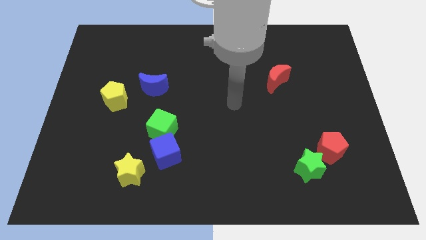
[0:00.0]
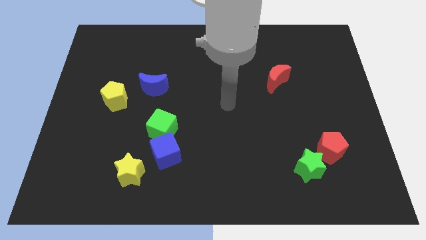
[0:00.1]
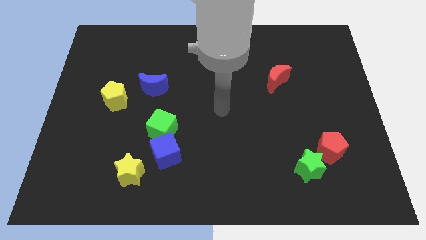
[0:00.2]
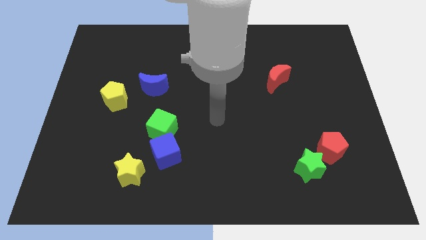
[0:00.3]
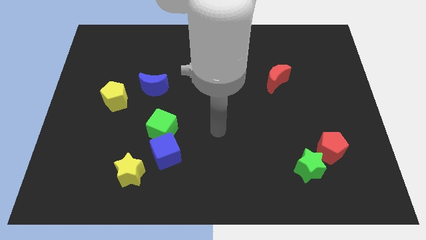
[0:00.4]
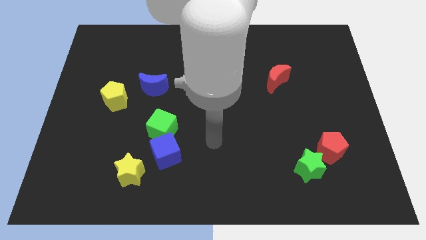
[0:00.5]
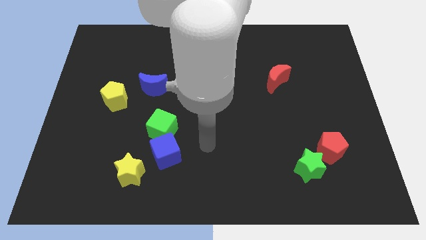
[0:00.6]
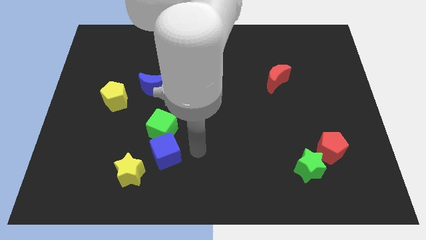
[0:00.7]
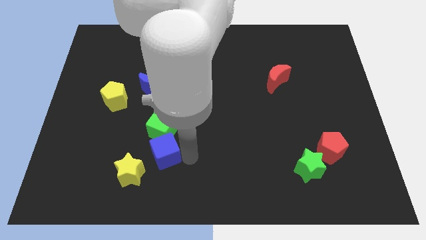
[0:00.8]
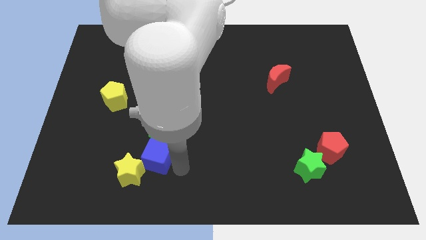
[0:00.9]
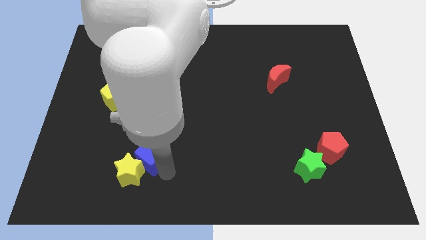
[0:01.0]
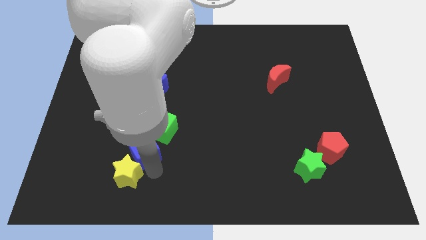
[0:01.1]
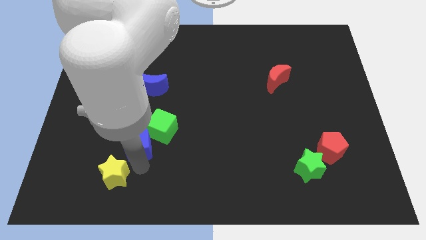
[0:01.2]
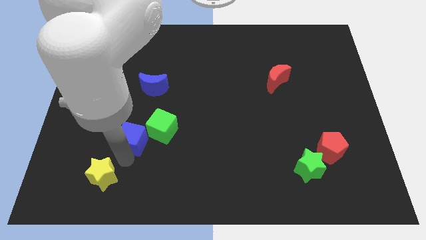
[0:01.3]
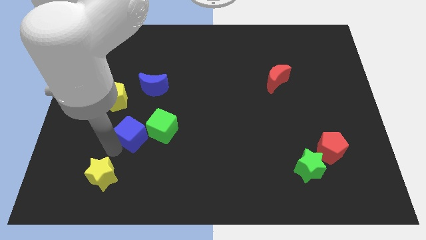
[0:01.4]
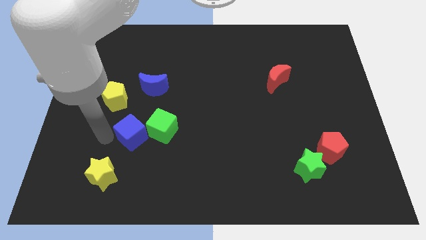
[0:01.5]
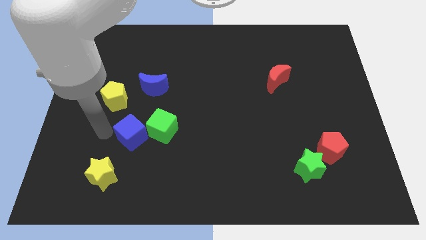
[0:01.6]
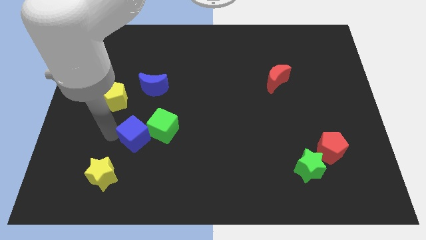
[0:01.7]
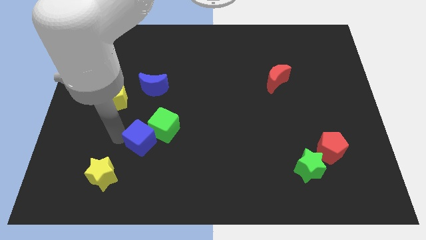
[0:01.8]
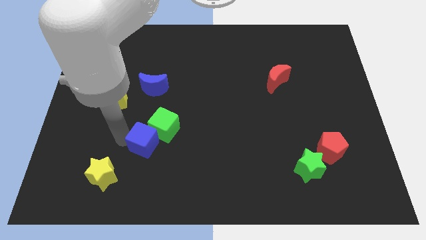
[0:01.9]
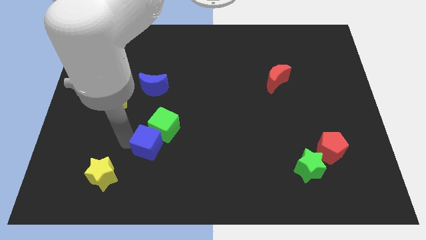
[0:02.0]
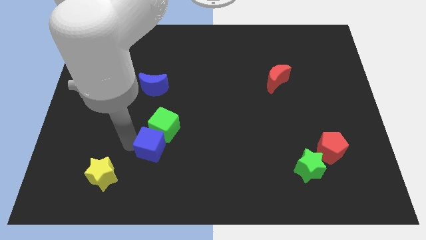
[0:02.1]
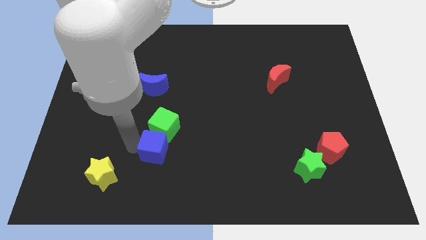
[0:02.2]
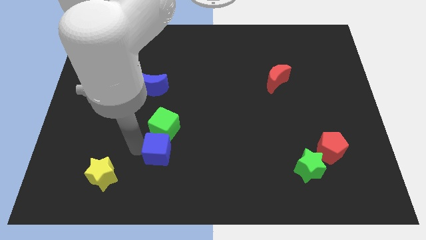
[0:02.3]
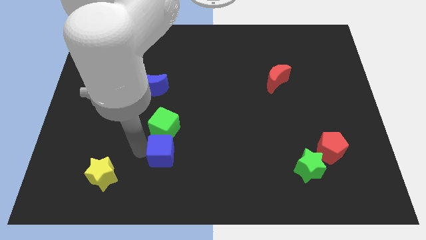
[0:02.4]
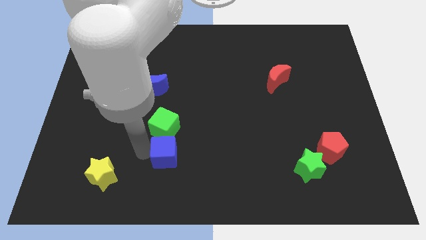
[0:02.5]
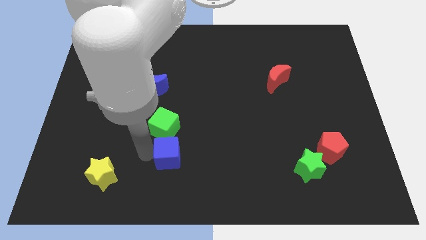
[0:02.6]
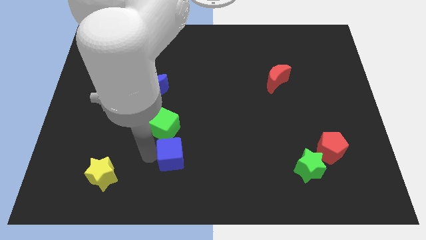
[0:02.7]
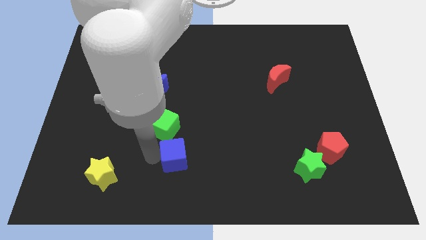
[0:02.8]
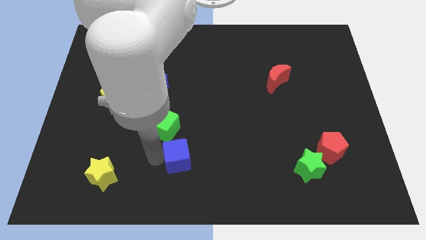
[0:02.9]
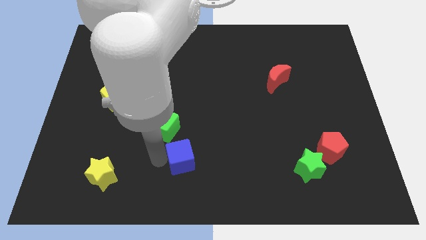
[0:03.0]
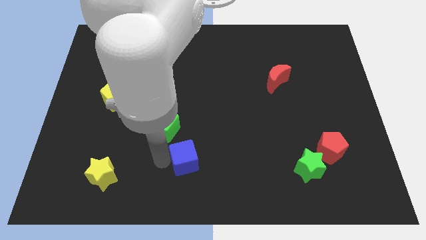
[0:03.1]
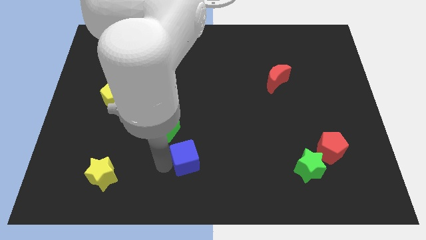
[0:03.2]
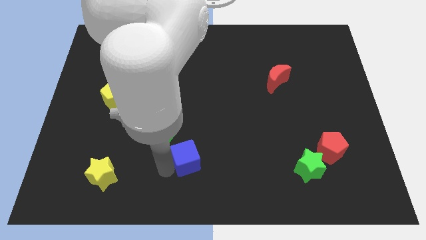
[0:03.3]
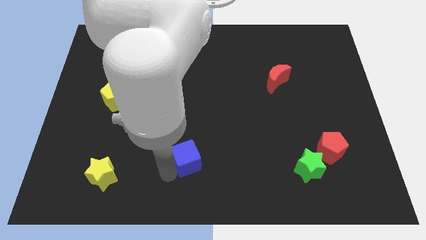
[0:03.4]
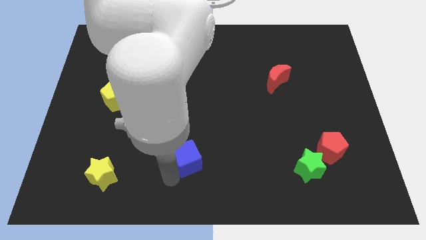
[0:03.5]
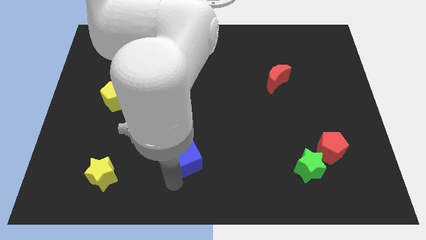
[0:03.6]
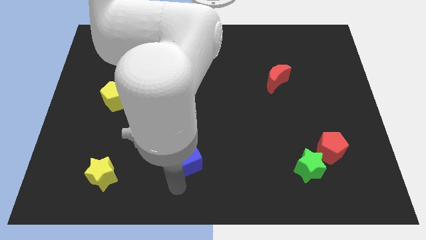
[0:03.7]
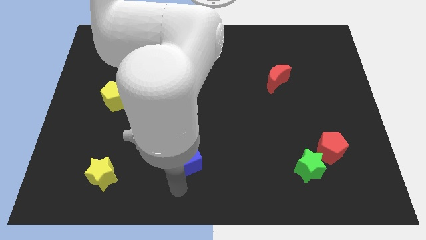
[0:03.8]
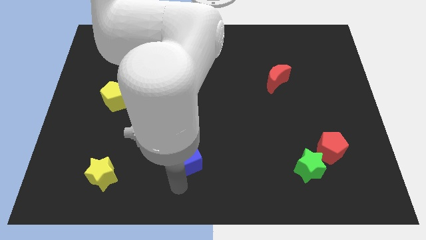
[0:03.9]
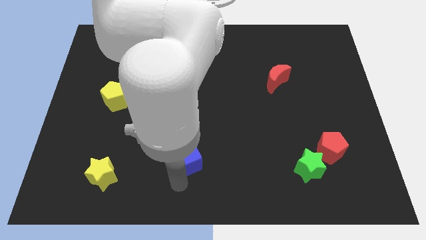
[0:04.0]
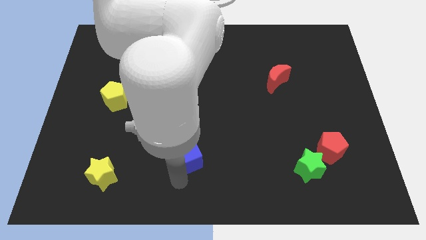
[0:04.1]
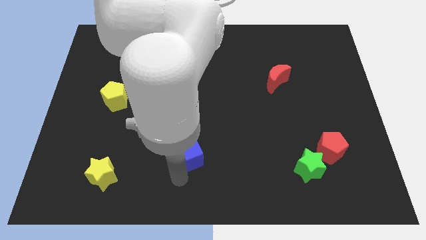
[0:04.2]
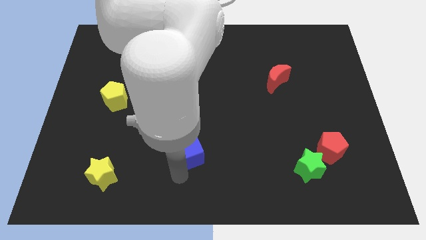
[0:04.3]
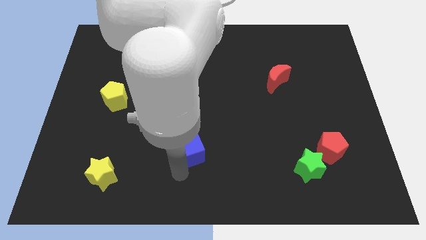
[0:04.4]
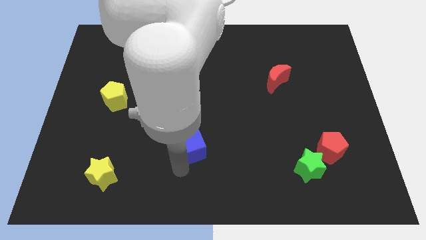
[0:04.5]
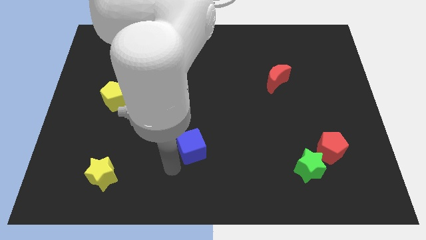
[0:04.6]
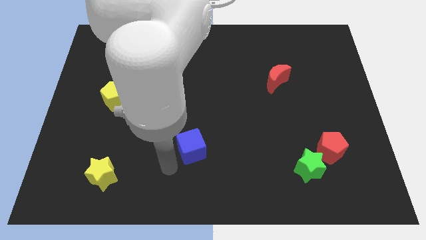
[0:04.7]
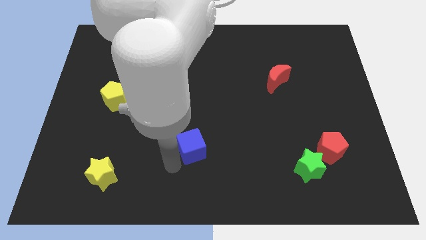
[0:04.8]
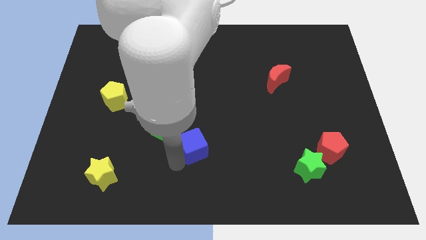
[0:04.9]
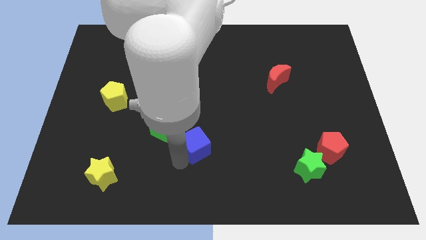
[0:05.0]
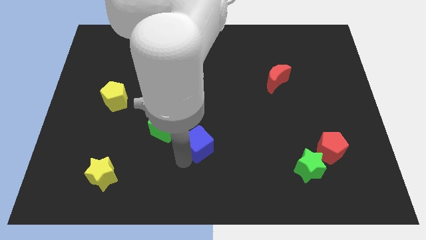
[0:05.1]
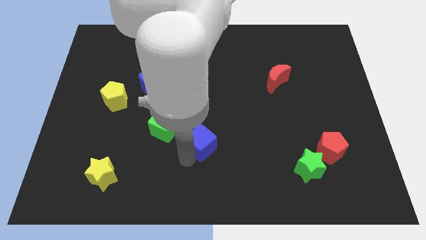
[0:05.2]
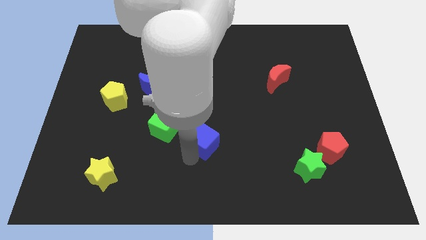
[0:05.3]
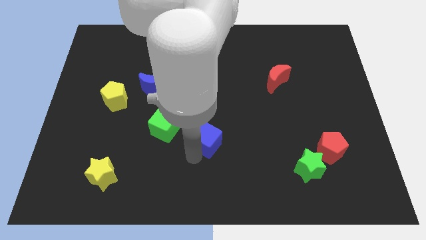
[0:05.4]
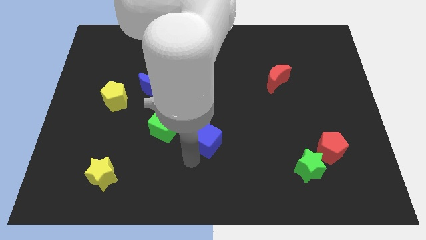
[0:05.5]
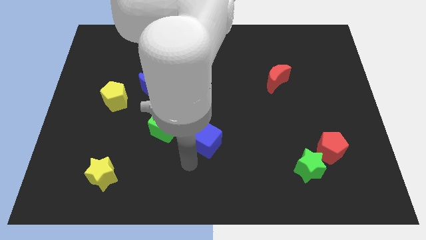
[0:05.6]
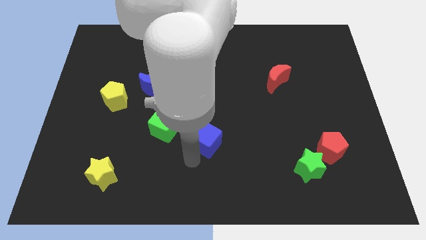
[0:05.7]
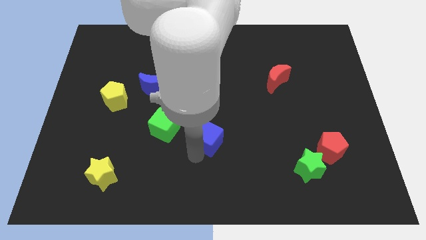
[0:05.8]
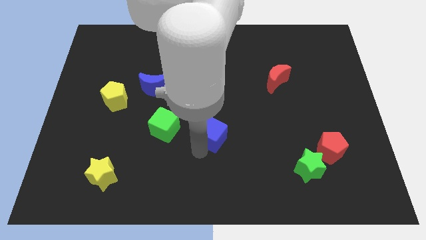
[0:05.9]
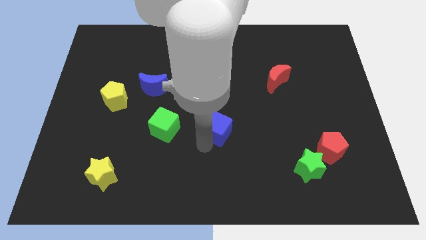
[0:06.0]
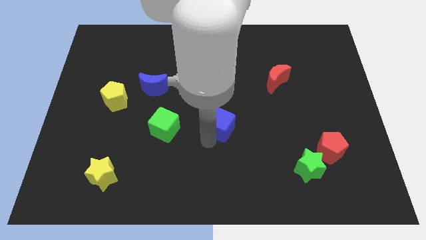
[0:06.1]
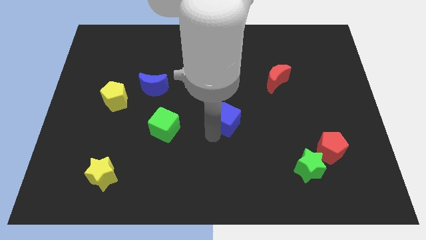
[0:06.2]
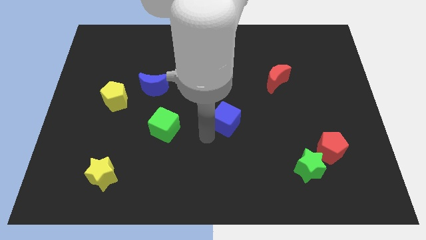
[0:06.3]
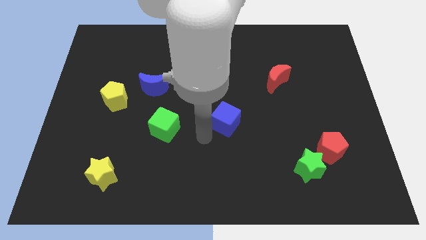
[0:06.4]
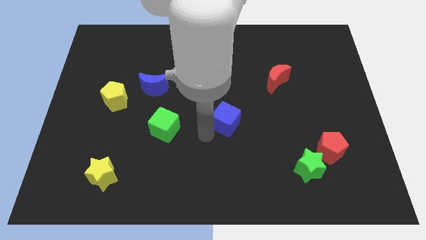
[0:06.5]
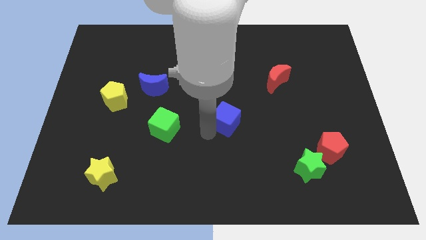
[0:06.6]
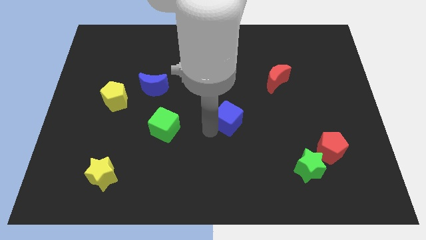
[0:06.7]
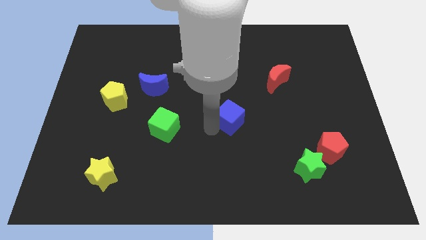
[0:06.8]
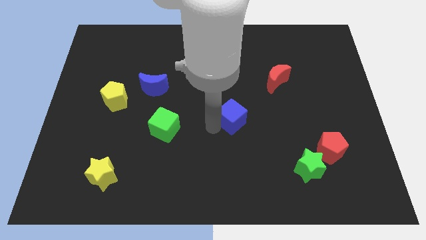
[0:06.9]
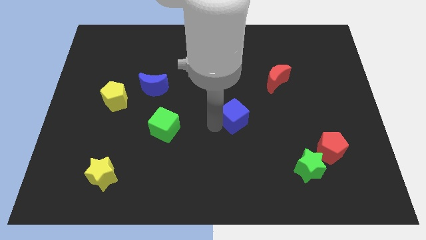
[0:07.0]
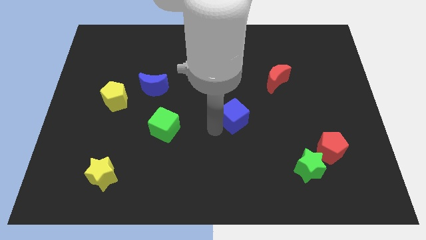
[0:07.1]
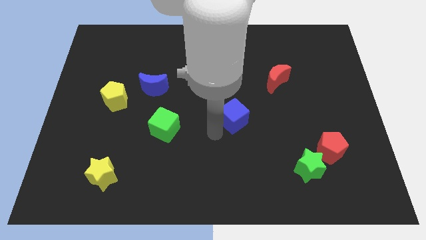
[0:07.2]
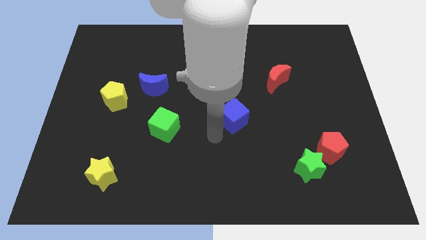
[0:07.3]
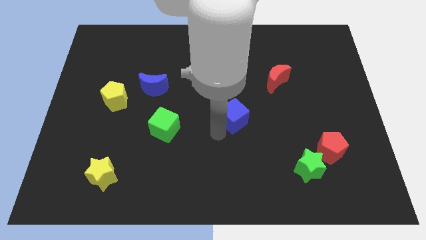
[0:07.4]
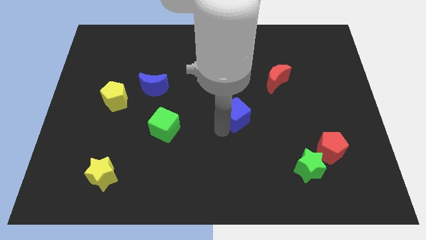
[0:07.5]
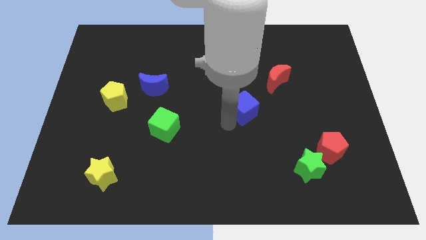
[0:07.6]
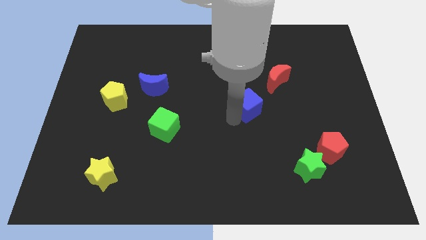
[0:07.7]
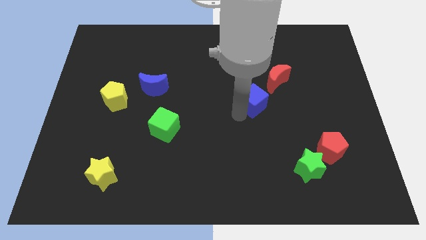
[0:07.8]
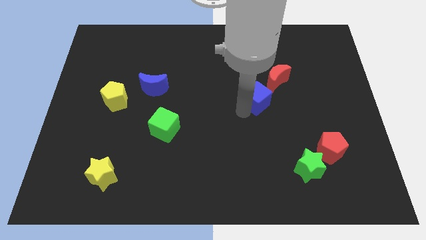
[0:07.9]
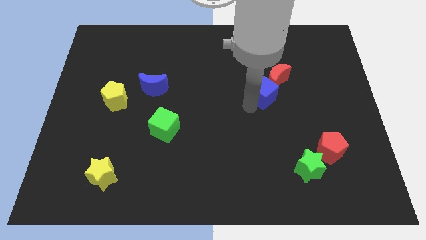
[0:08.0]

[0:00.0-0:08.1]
push the blue cube close to the red moon
